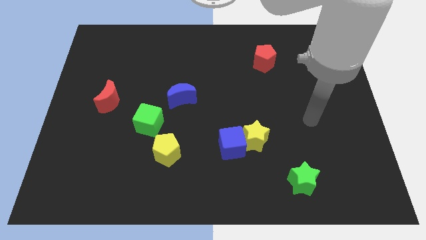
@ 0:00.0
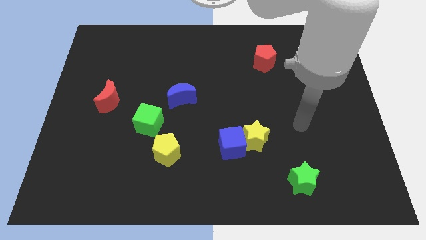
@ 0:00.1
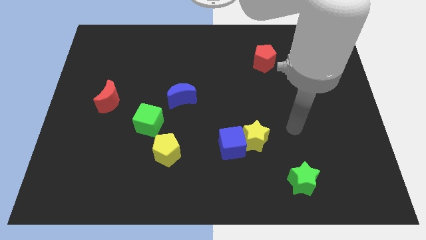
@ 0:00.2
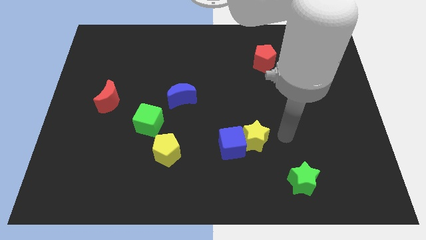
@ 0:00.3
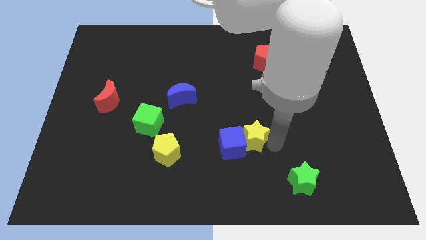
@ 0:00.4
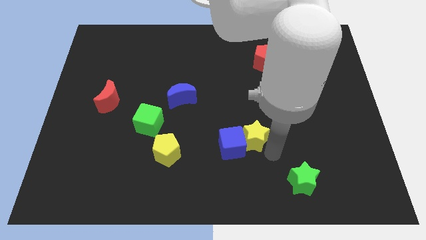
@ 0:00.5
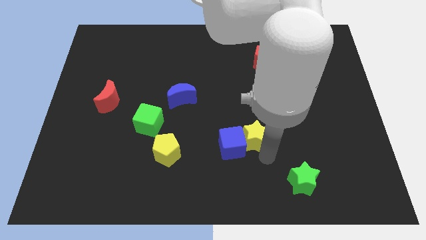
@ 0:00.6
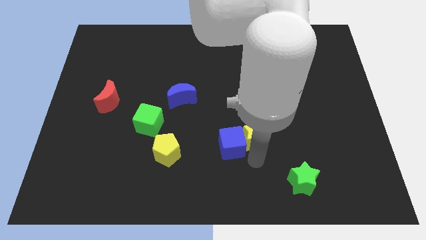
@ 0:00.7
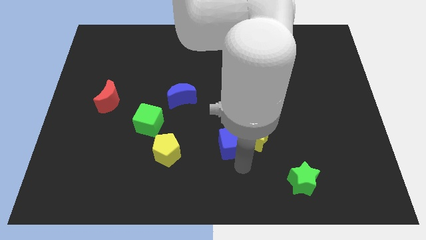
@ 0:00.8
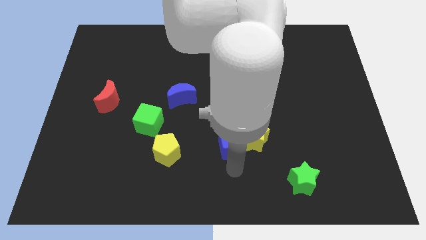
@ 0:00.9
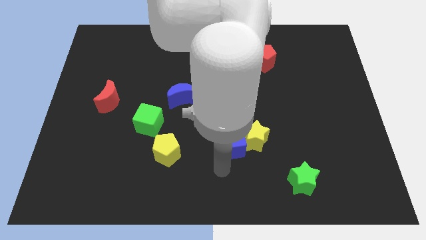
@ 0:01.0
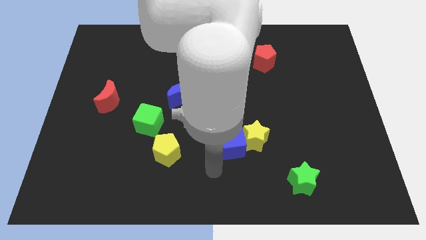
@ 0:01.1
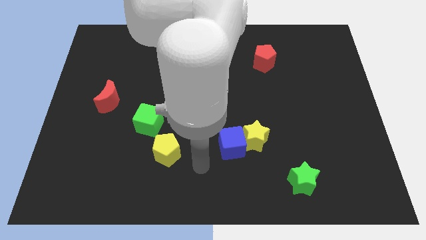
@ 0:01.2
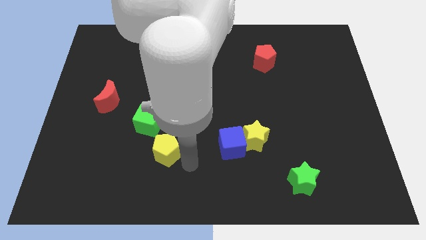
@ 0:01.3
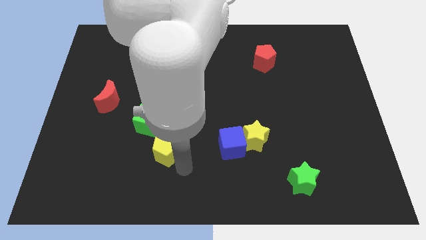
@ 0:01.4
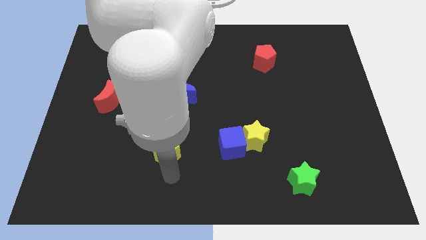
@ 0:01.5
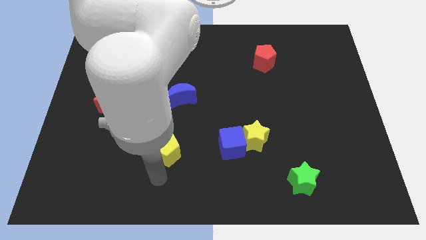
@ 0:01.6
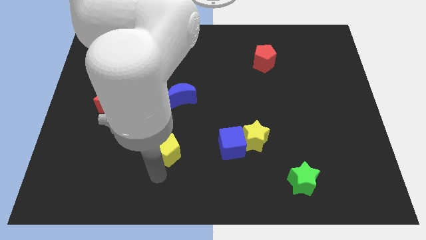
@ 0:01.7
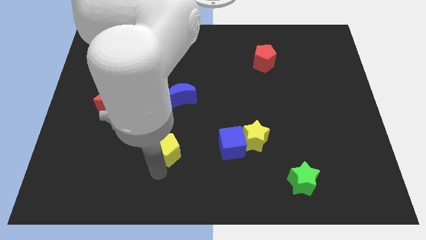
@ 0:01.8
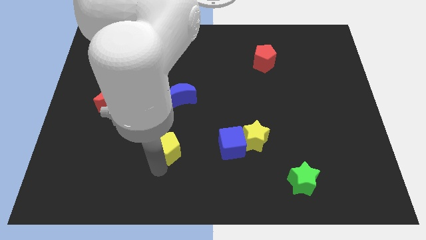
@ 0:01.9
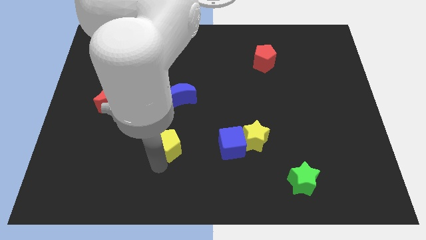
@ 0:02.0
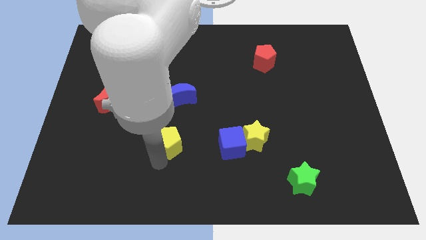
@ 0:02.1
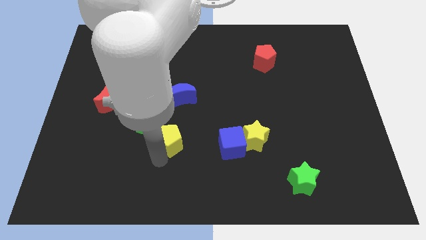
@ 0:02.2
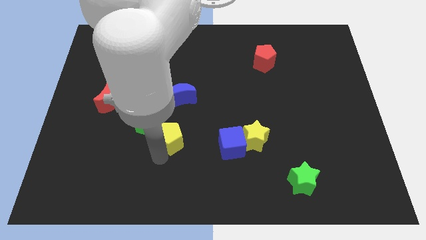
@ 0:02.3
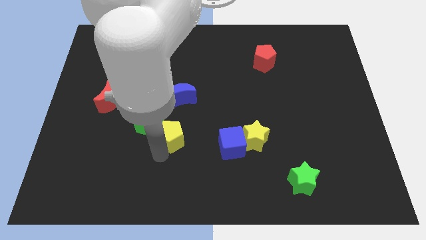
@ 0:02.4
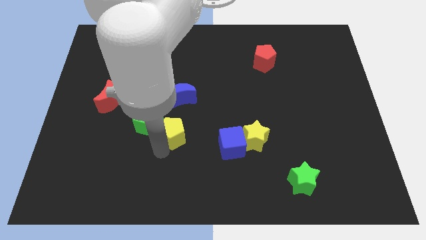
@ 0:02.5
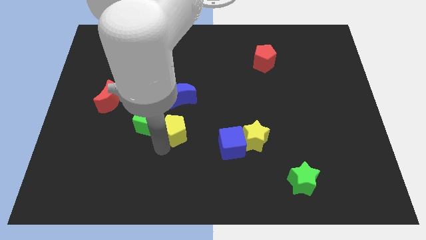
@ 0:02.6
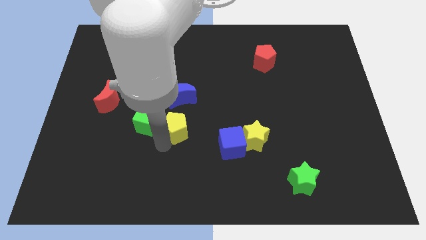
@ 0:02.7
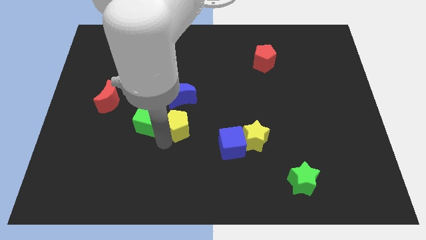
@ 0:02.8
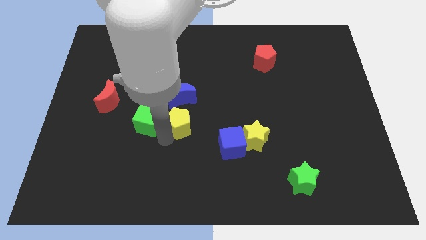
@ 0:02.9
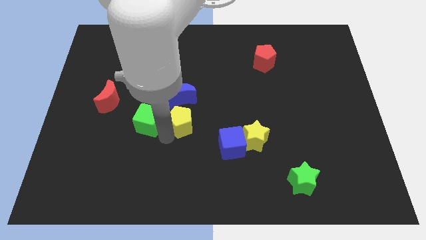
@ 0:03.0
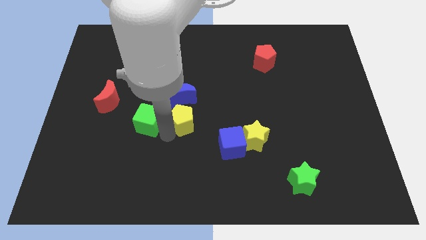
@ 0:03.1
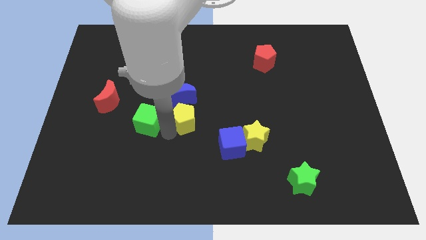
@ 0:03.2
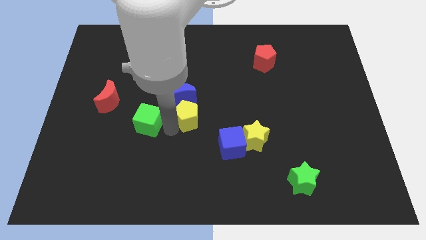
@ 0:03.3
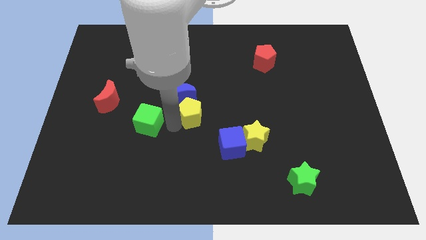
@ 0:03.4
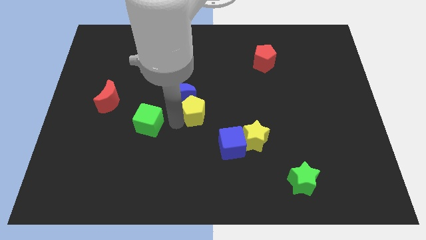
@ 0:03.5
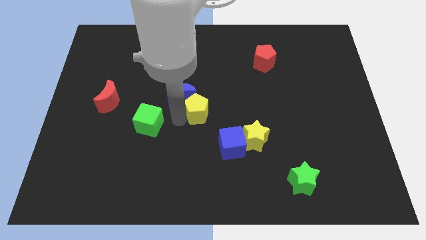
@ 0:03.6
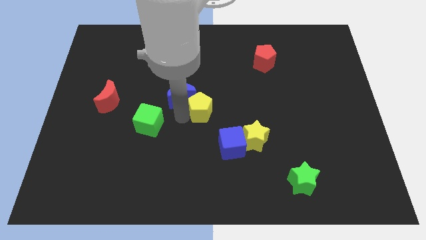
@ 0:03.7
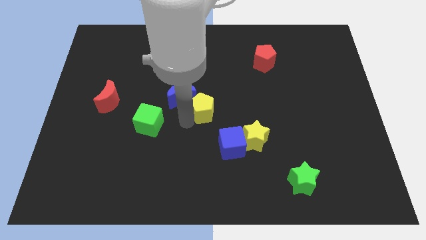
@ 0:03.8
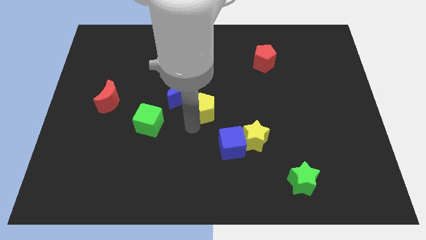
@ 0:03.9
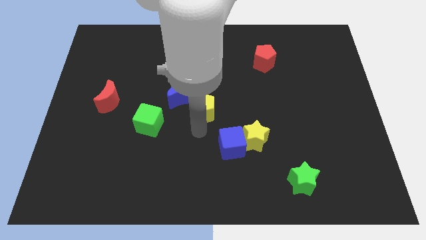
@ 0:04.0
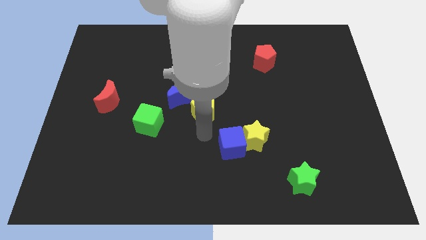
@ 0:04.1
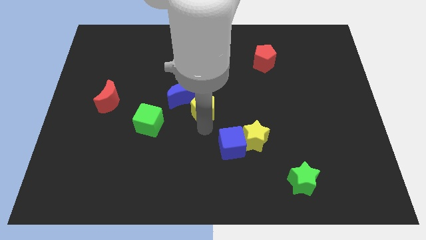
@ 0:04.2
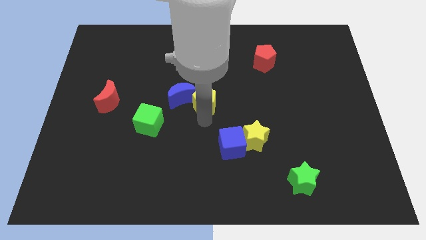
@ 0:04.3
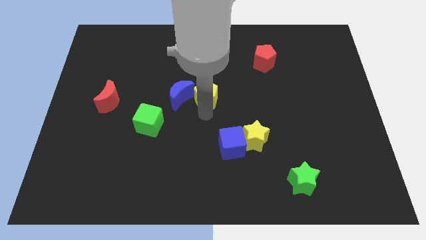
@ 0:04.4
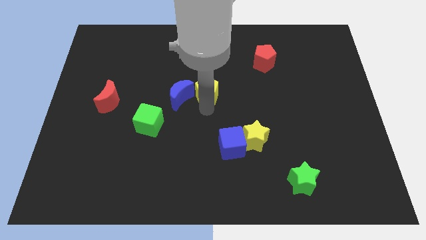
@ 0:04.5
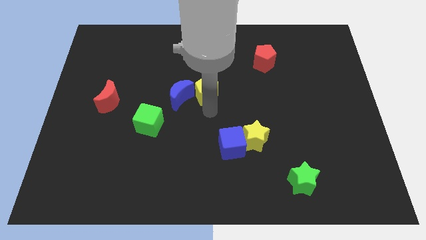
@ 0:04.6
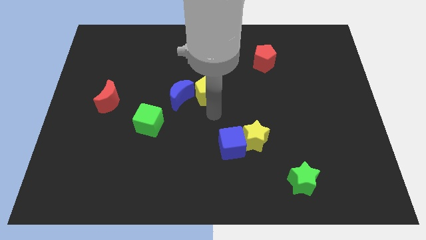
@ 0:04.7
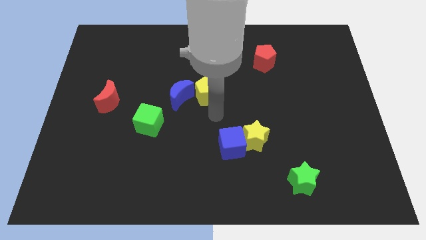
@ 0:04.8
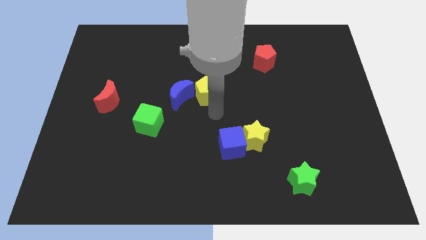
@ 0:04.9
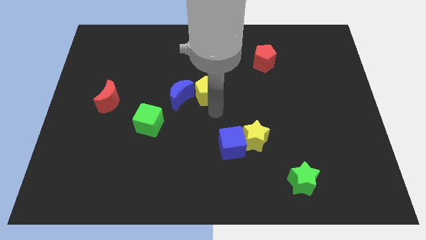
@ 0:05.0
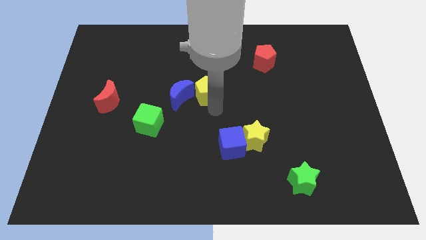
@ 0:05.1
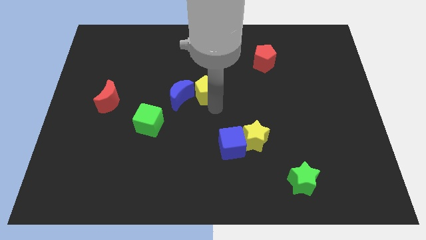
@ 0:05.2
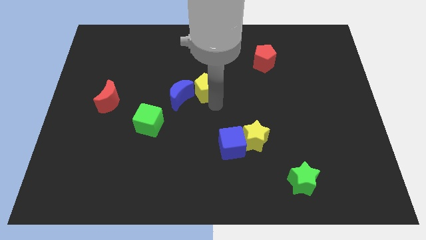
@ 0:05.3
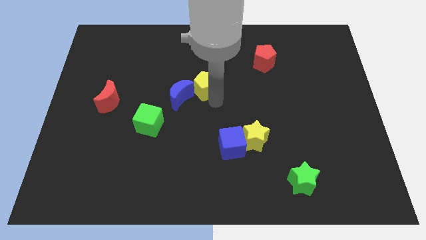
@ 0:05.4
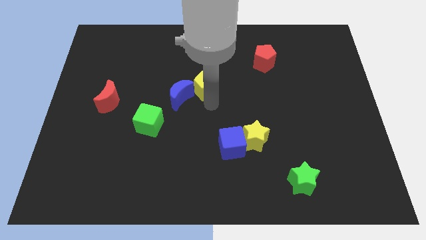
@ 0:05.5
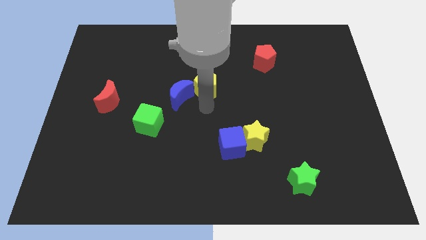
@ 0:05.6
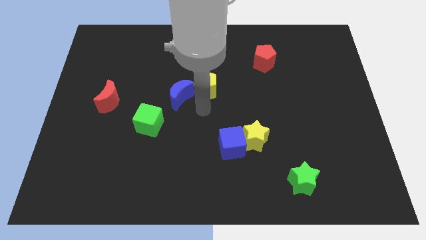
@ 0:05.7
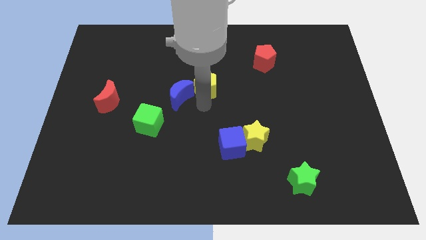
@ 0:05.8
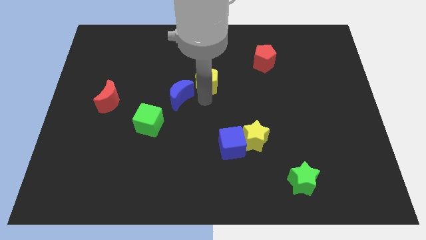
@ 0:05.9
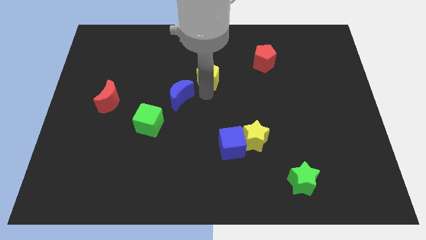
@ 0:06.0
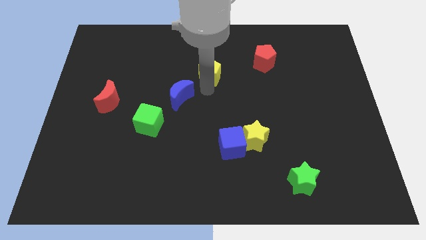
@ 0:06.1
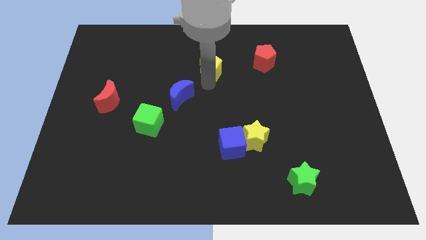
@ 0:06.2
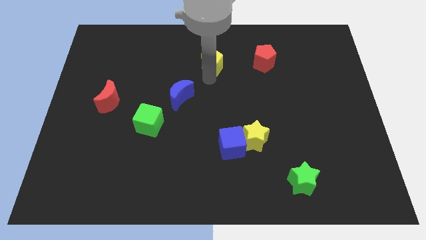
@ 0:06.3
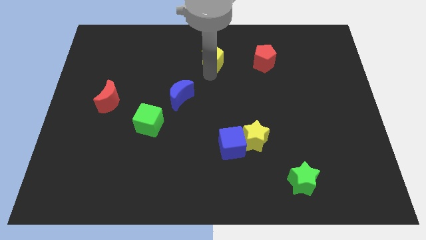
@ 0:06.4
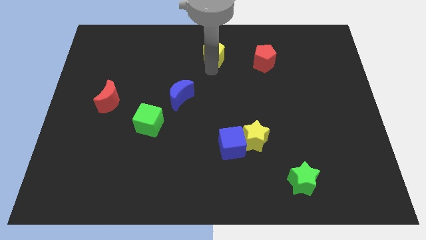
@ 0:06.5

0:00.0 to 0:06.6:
push the yellow pentagon to the towards your base
